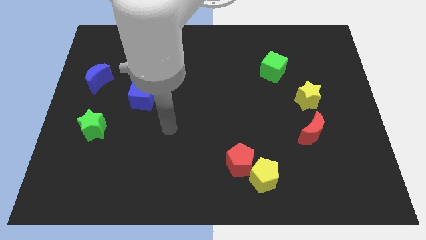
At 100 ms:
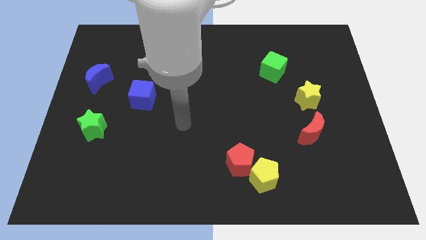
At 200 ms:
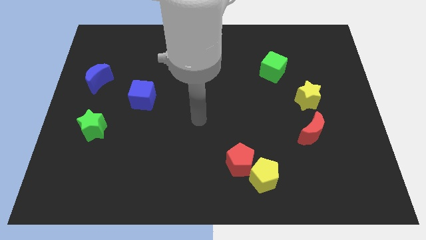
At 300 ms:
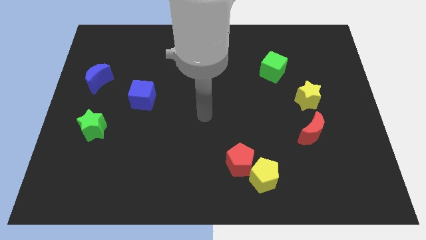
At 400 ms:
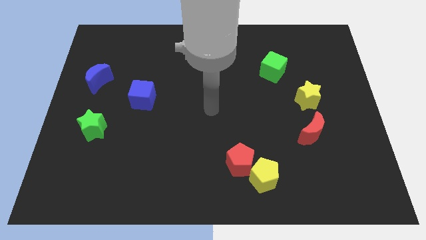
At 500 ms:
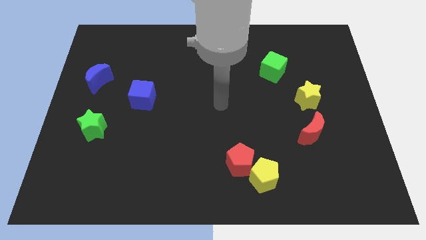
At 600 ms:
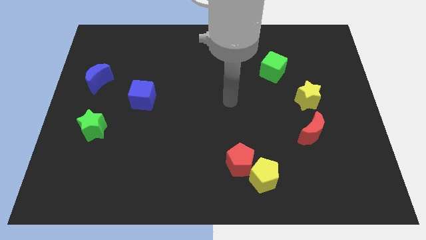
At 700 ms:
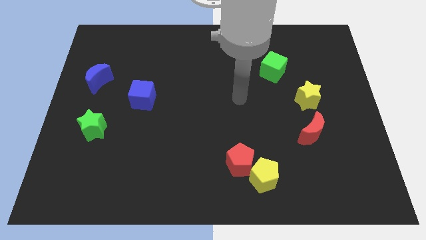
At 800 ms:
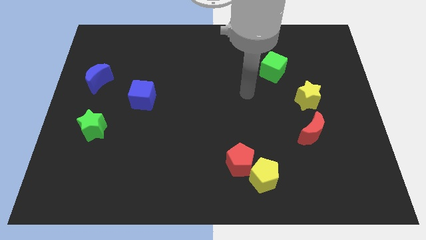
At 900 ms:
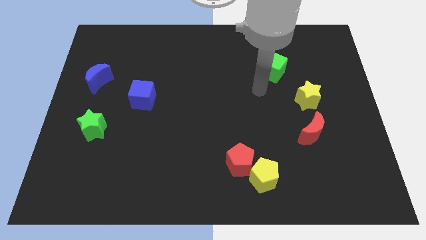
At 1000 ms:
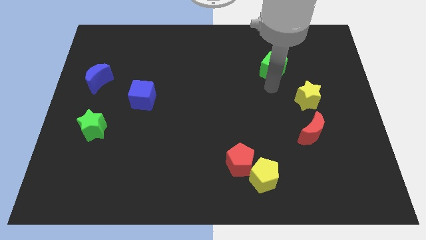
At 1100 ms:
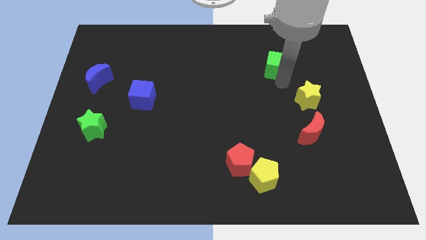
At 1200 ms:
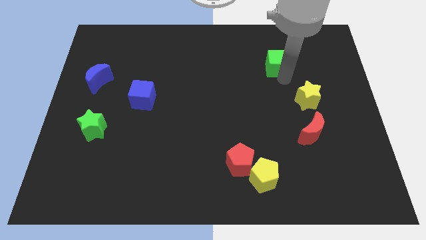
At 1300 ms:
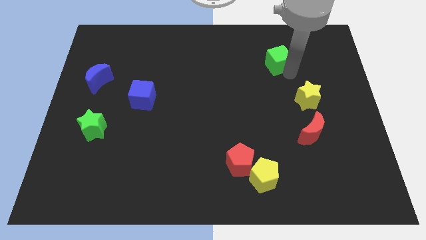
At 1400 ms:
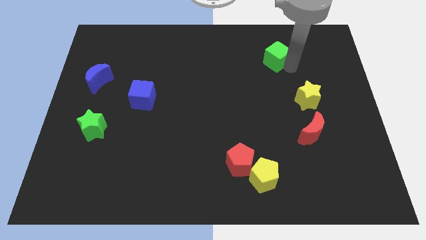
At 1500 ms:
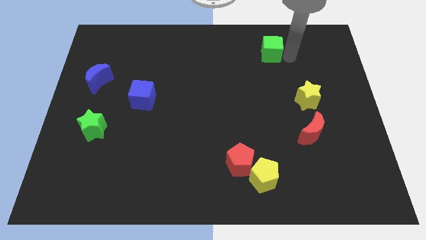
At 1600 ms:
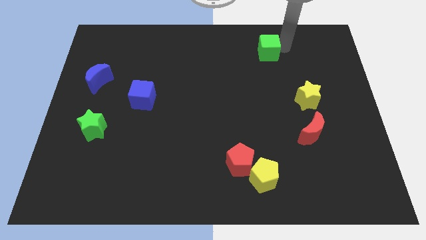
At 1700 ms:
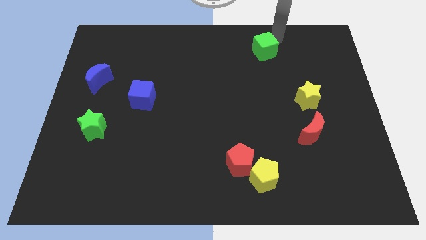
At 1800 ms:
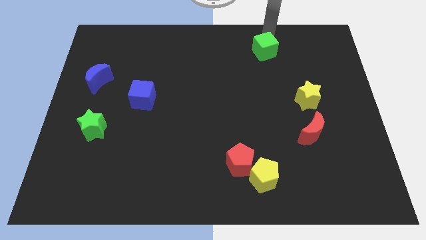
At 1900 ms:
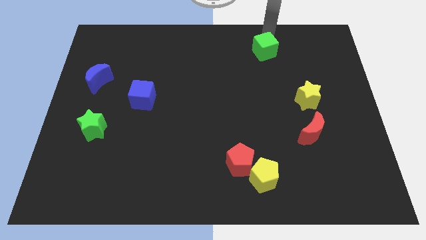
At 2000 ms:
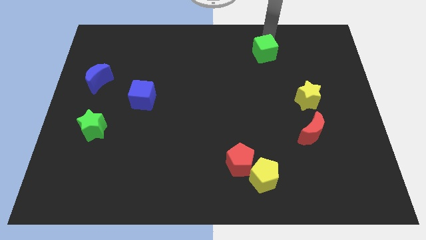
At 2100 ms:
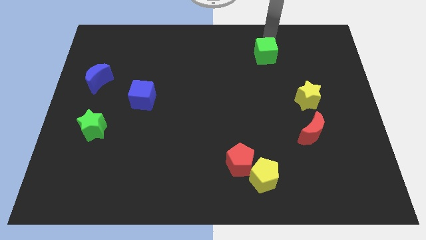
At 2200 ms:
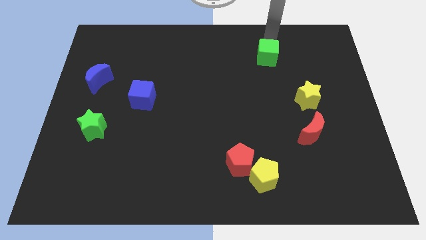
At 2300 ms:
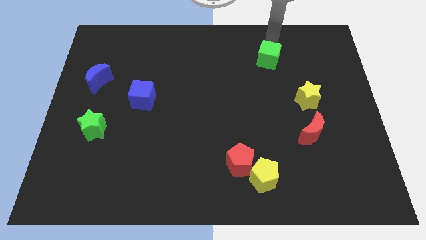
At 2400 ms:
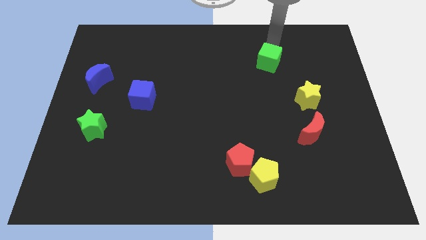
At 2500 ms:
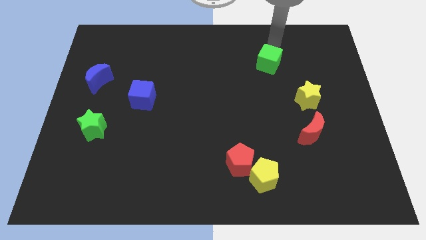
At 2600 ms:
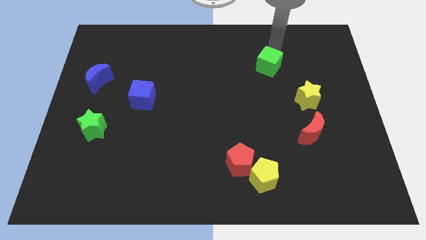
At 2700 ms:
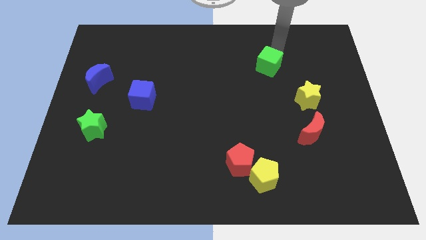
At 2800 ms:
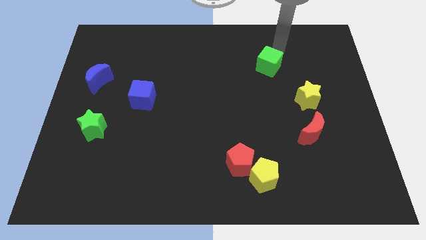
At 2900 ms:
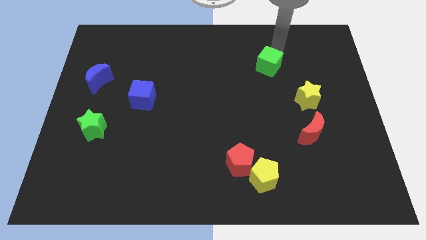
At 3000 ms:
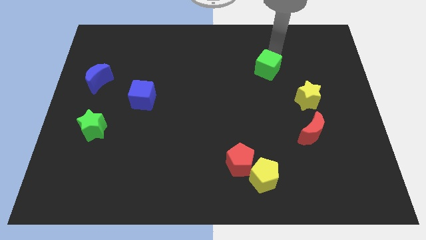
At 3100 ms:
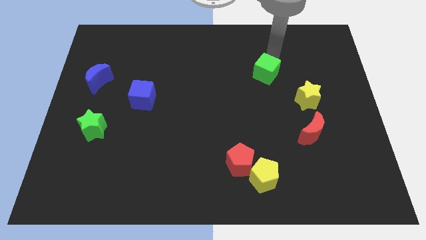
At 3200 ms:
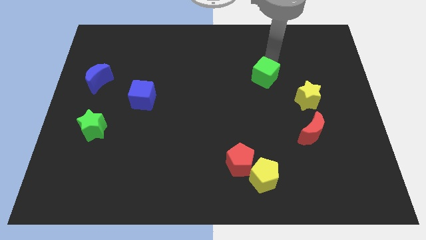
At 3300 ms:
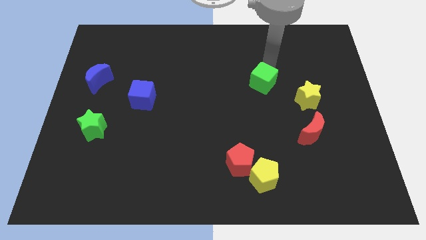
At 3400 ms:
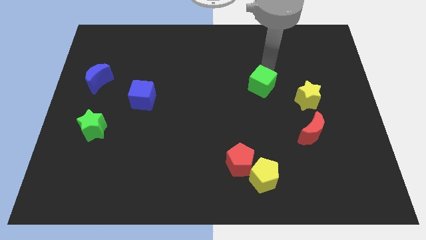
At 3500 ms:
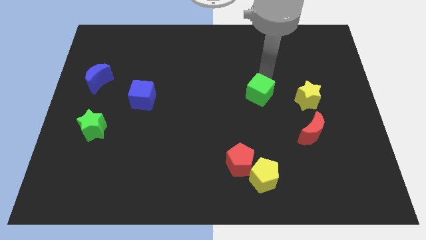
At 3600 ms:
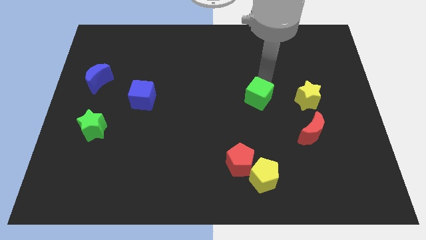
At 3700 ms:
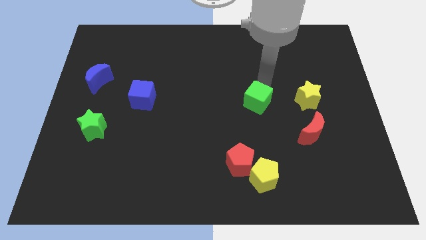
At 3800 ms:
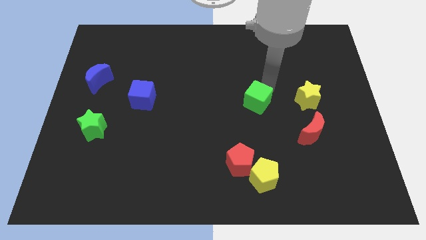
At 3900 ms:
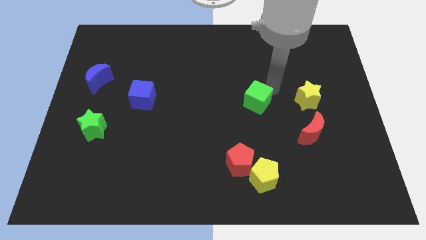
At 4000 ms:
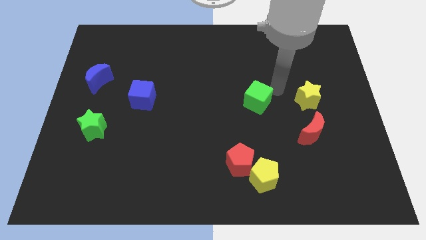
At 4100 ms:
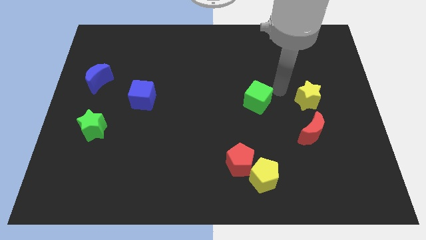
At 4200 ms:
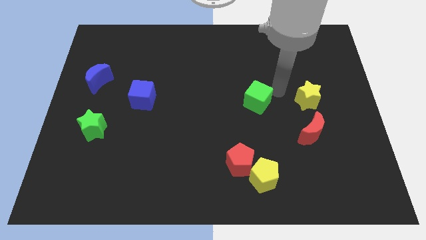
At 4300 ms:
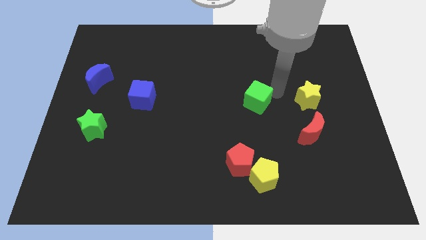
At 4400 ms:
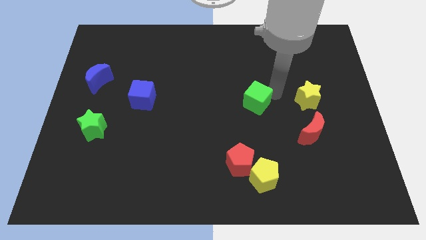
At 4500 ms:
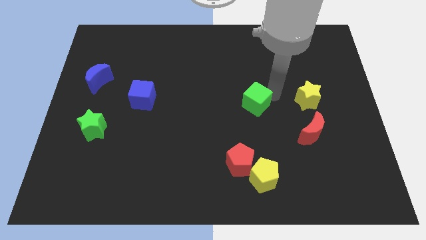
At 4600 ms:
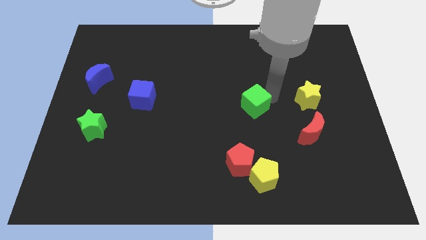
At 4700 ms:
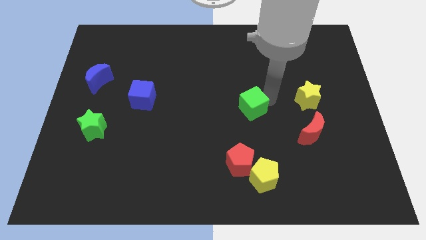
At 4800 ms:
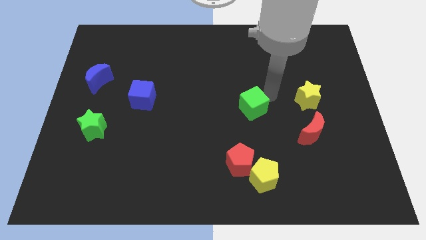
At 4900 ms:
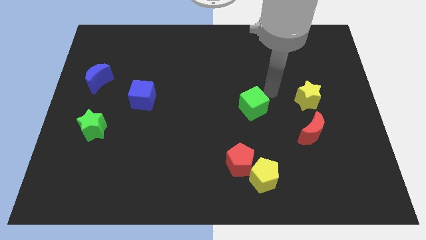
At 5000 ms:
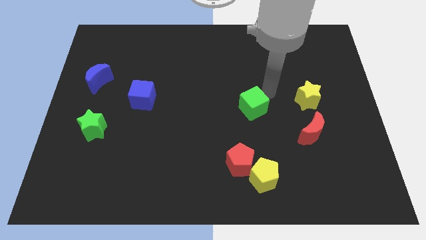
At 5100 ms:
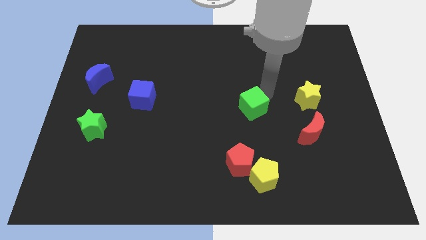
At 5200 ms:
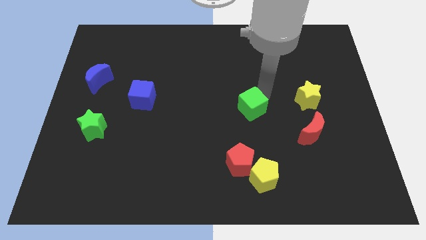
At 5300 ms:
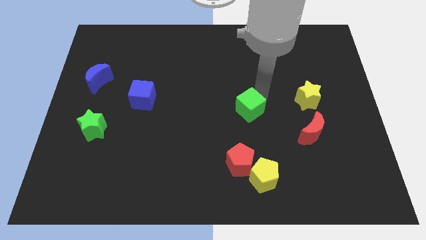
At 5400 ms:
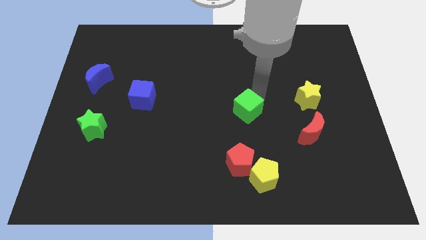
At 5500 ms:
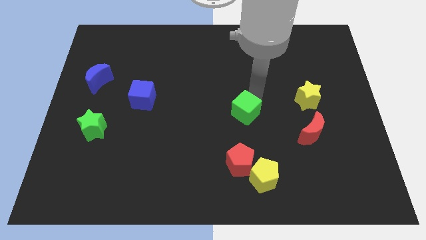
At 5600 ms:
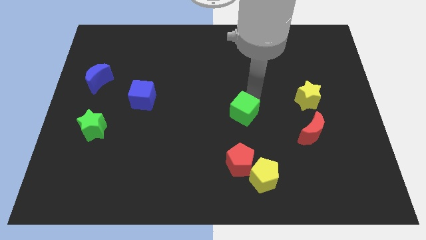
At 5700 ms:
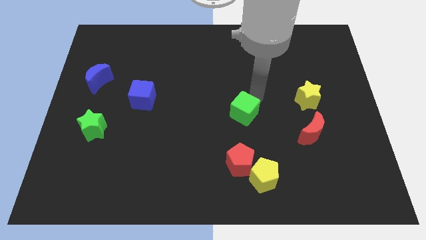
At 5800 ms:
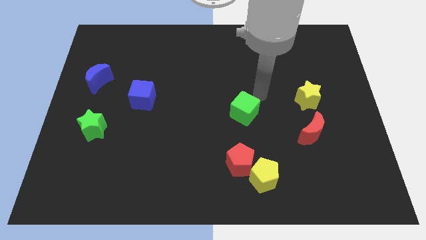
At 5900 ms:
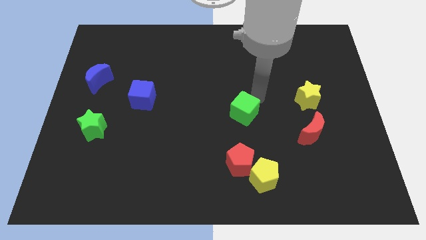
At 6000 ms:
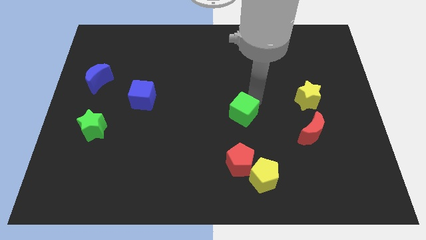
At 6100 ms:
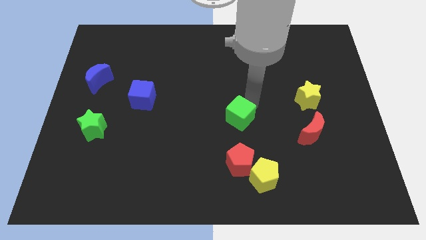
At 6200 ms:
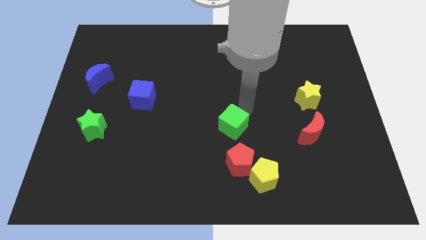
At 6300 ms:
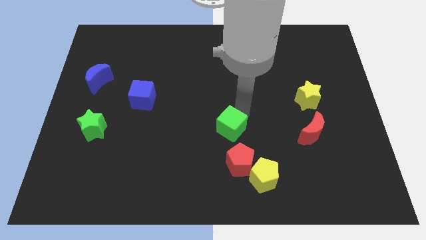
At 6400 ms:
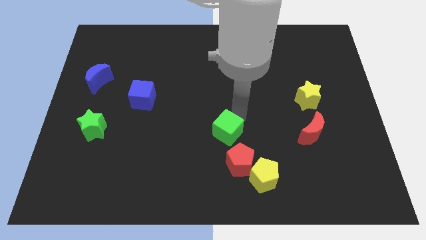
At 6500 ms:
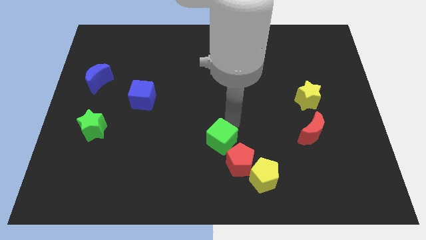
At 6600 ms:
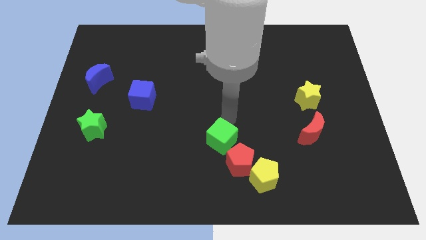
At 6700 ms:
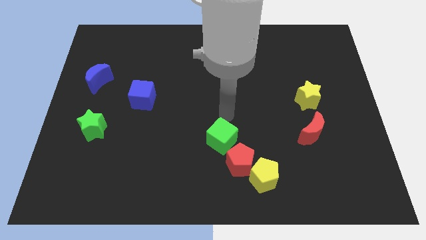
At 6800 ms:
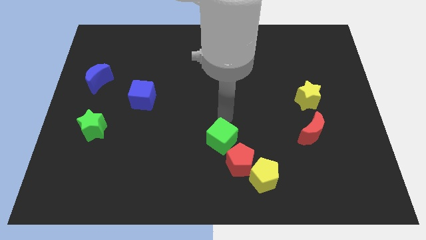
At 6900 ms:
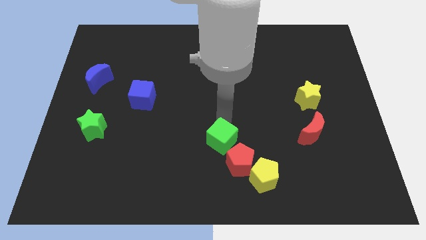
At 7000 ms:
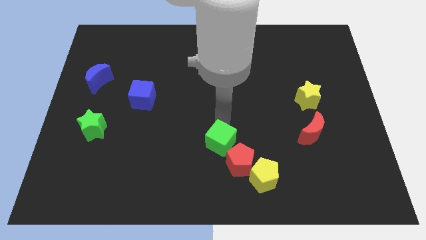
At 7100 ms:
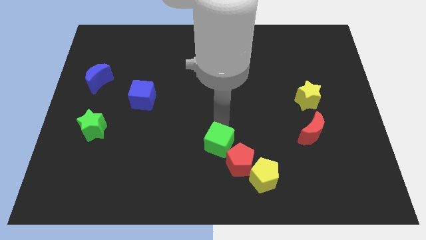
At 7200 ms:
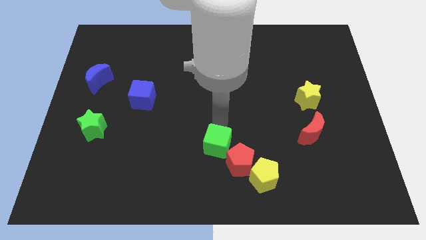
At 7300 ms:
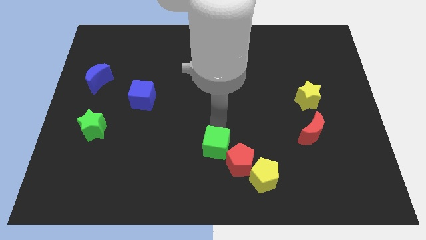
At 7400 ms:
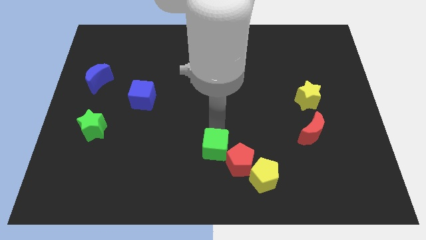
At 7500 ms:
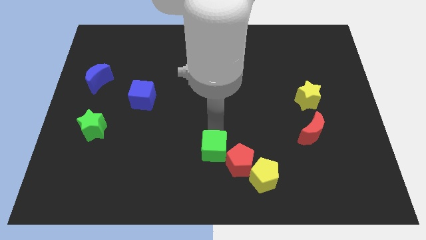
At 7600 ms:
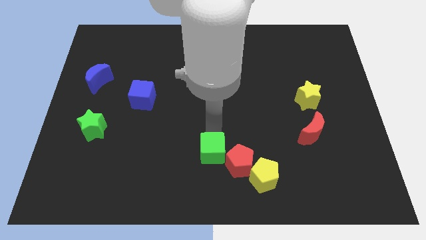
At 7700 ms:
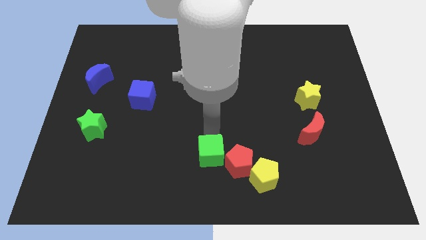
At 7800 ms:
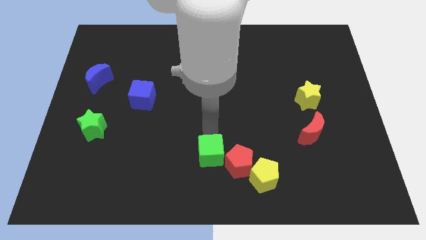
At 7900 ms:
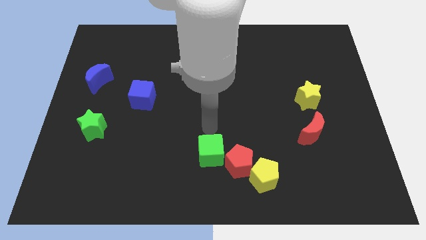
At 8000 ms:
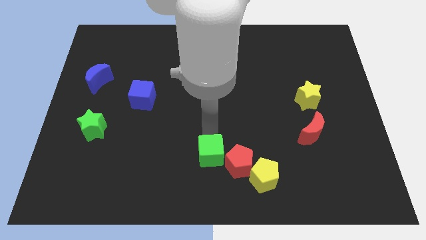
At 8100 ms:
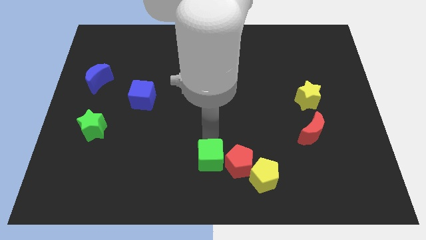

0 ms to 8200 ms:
push the green cube to the left side of the yellow pentagon
